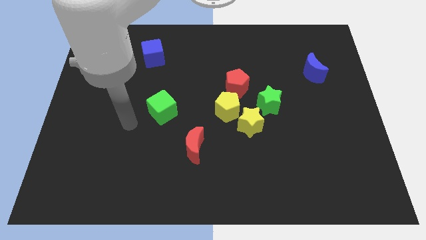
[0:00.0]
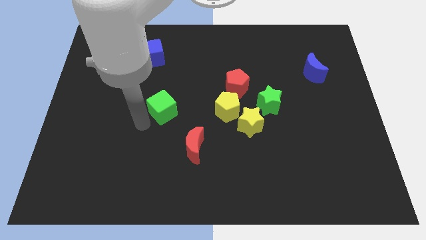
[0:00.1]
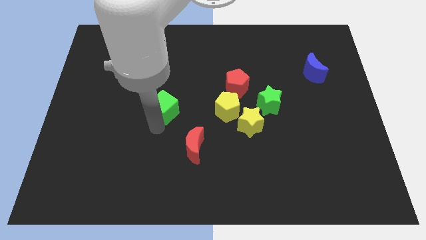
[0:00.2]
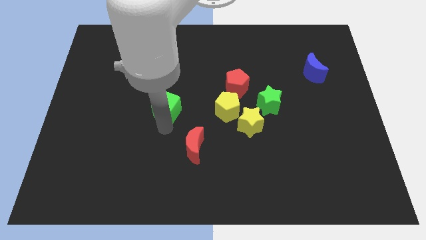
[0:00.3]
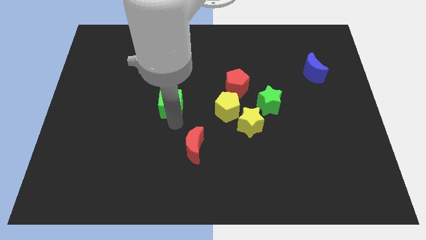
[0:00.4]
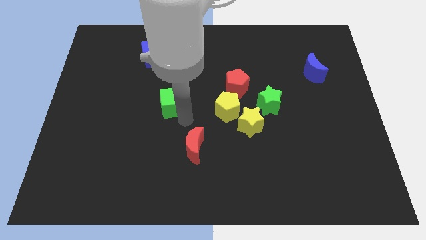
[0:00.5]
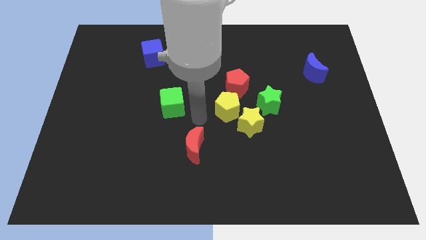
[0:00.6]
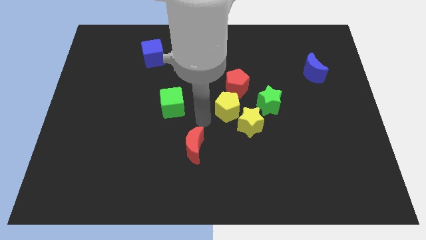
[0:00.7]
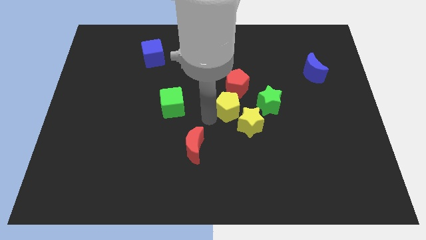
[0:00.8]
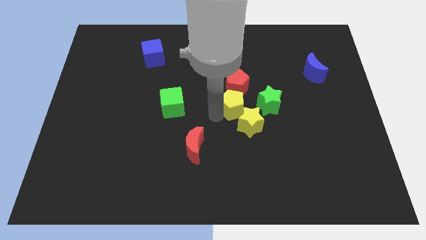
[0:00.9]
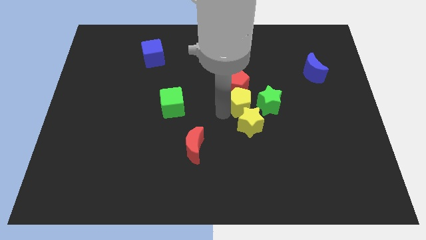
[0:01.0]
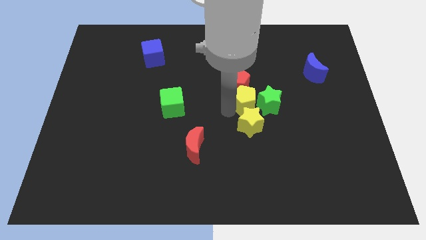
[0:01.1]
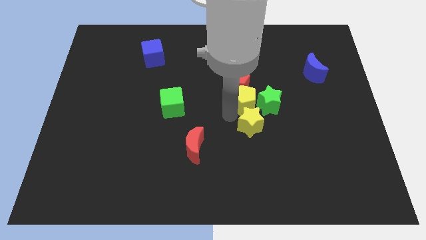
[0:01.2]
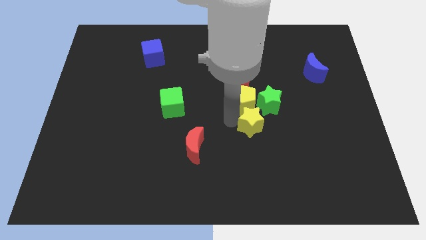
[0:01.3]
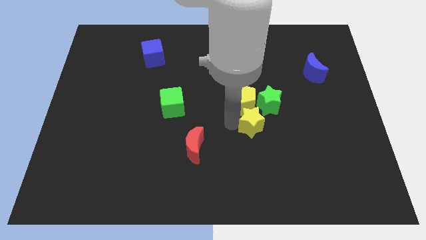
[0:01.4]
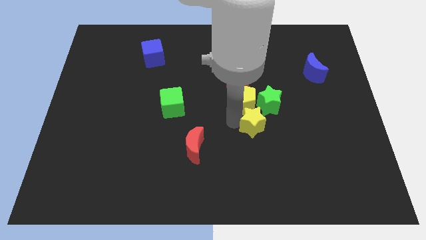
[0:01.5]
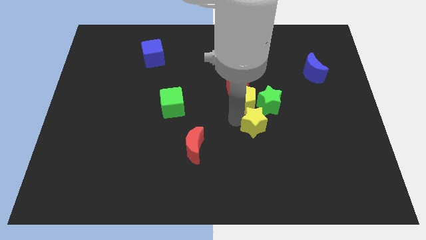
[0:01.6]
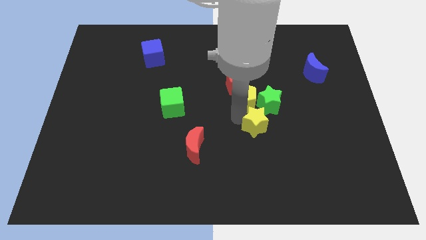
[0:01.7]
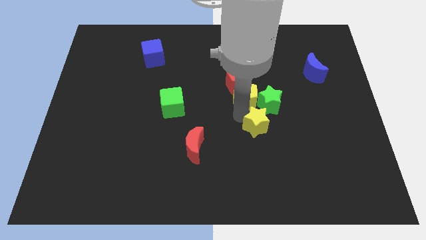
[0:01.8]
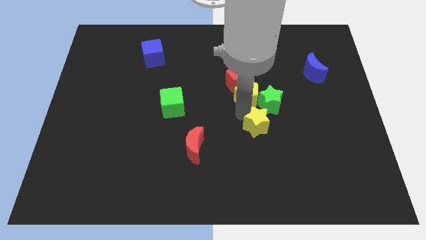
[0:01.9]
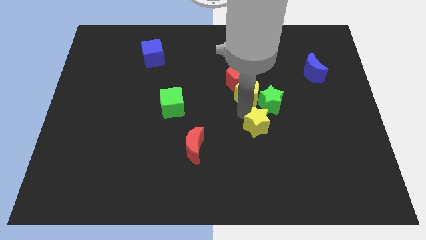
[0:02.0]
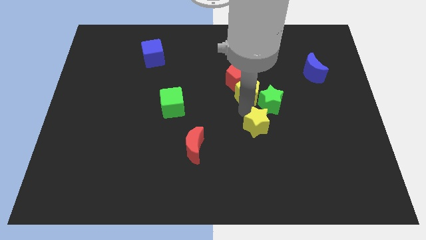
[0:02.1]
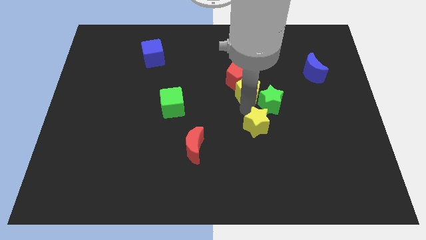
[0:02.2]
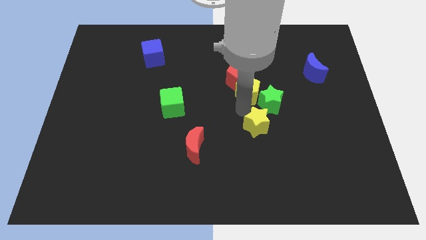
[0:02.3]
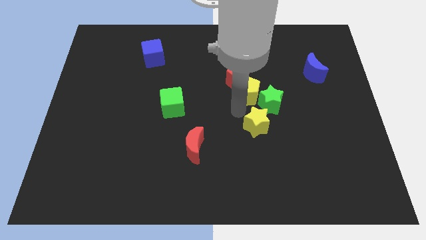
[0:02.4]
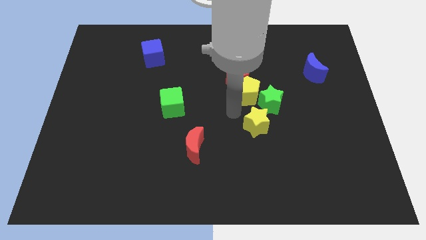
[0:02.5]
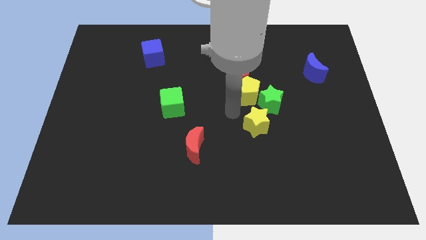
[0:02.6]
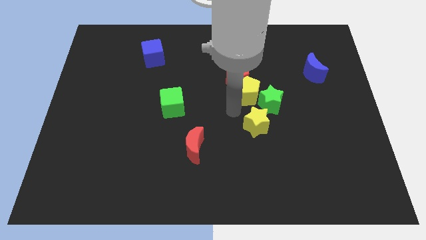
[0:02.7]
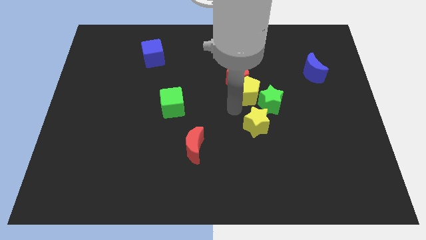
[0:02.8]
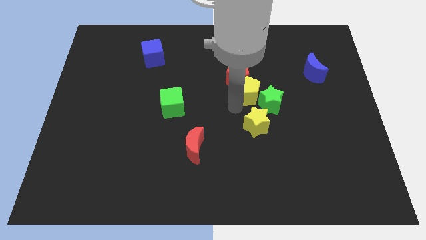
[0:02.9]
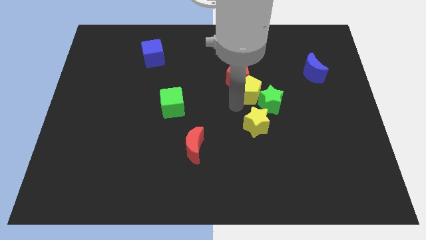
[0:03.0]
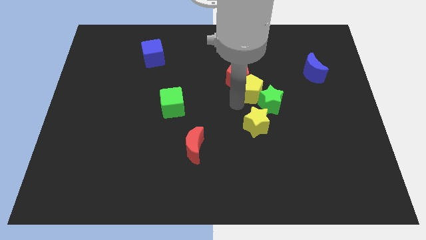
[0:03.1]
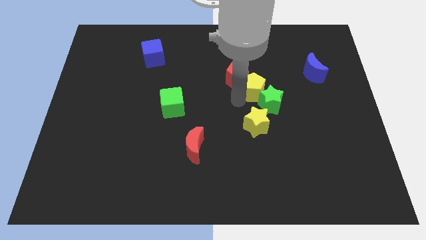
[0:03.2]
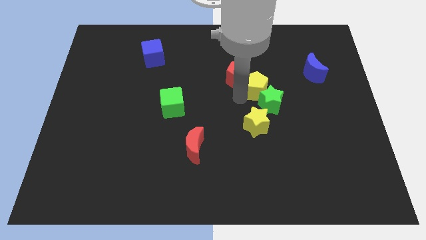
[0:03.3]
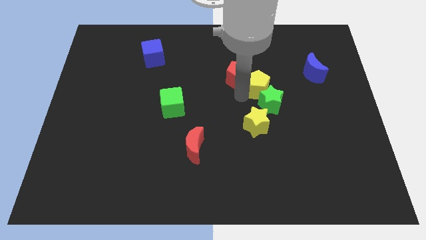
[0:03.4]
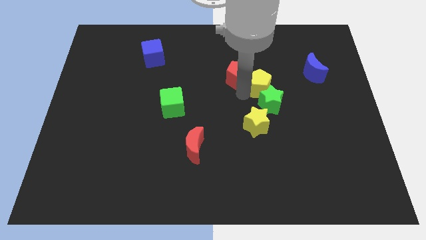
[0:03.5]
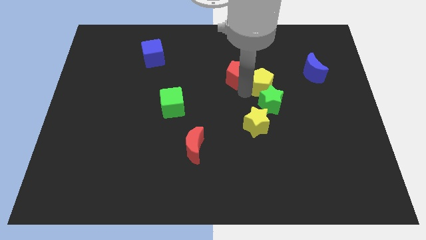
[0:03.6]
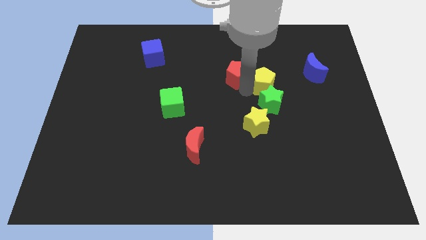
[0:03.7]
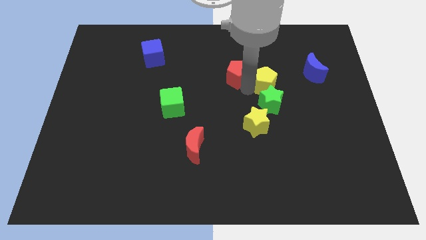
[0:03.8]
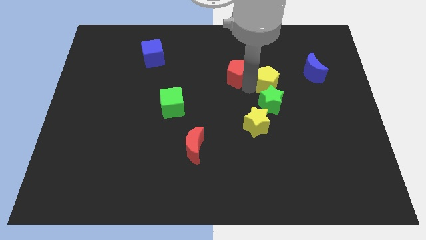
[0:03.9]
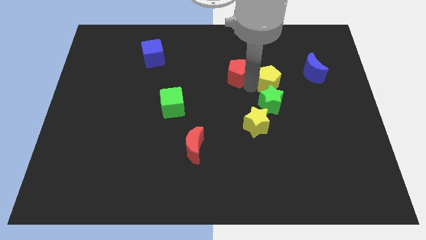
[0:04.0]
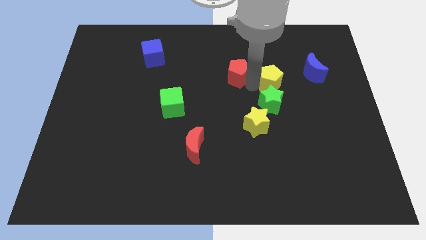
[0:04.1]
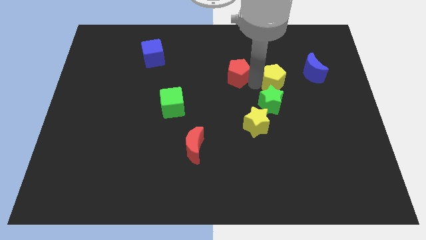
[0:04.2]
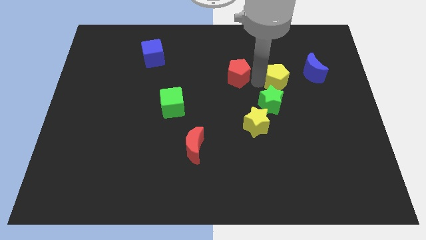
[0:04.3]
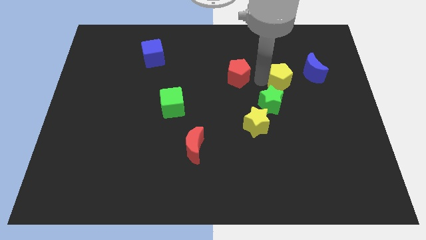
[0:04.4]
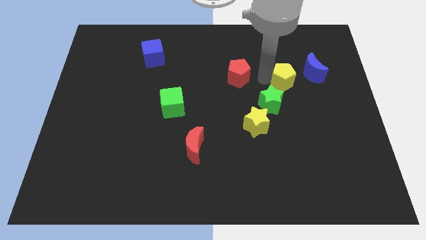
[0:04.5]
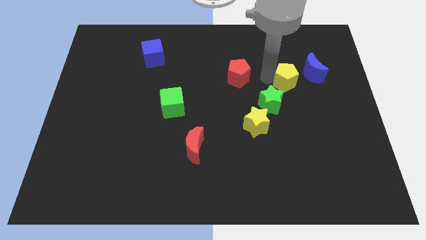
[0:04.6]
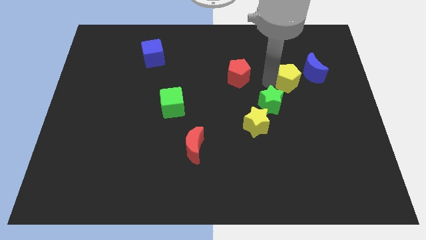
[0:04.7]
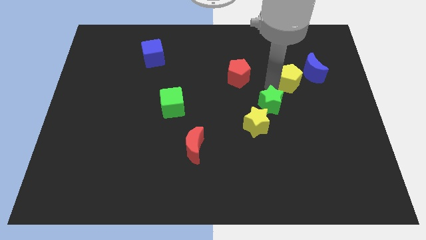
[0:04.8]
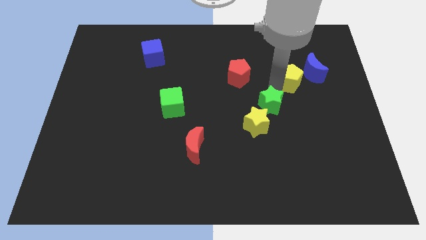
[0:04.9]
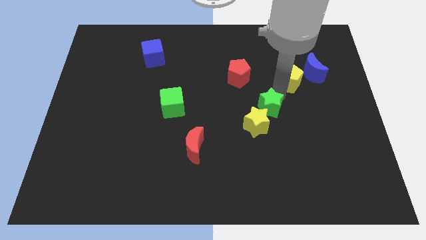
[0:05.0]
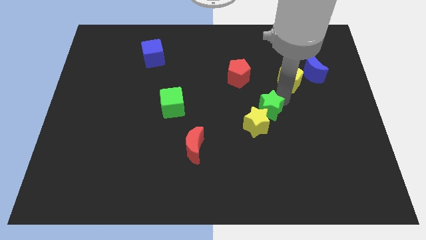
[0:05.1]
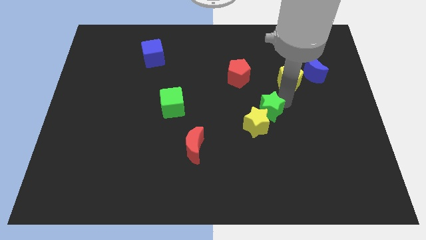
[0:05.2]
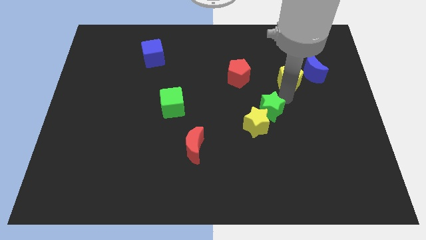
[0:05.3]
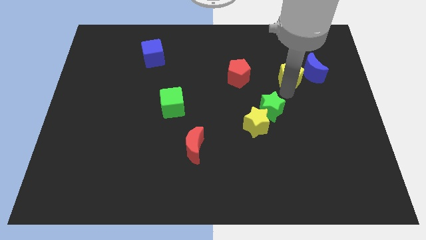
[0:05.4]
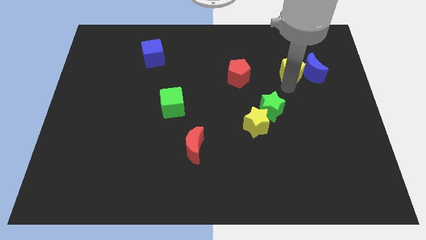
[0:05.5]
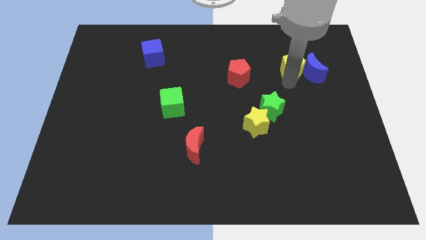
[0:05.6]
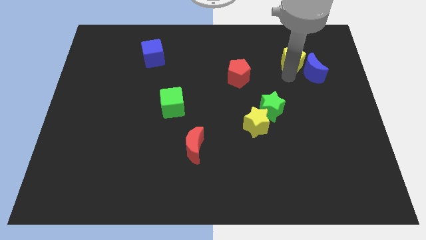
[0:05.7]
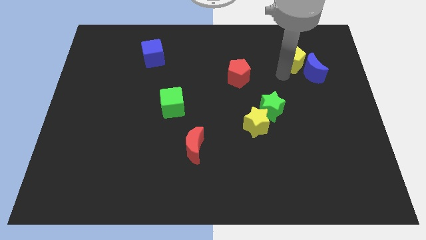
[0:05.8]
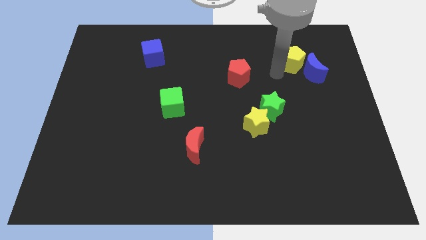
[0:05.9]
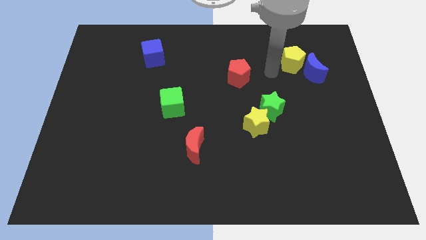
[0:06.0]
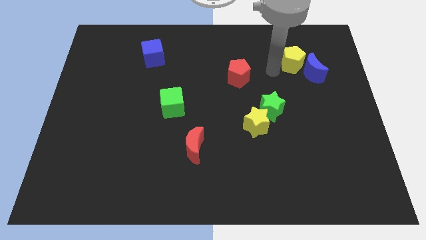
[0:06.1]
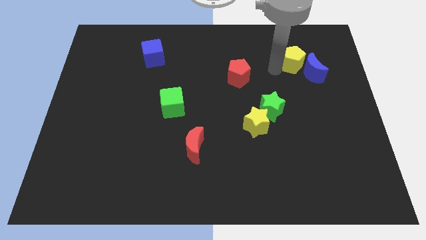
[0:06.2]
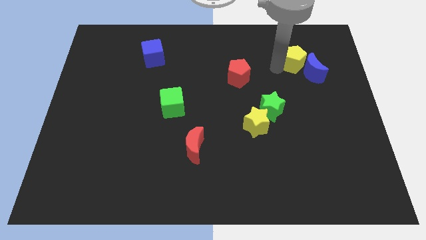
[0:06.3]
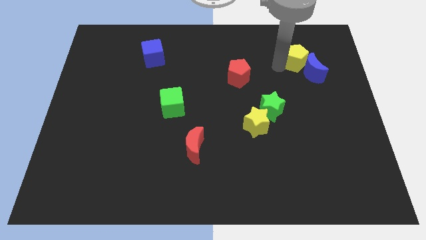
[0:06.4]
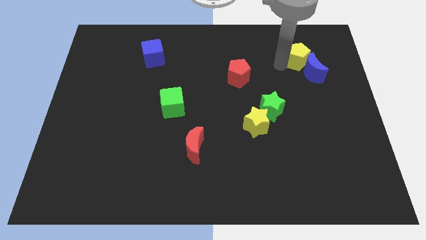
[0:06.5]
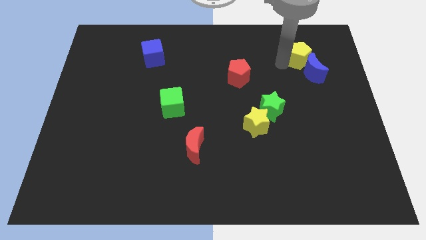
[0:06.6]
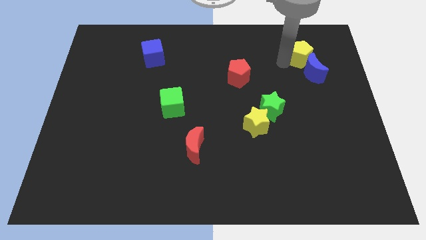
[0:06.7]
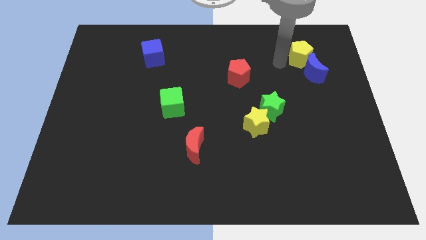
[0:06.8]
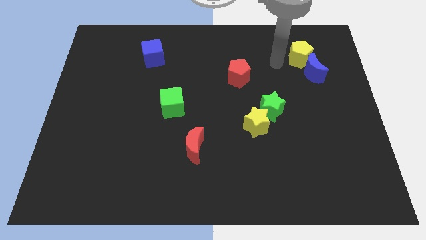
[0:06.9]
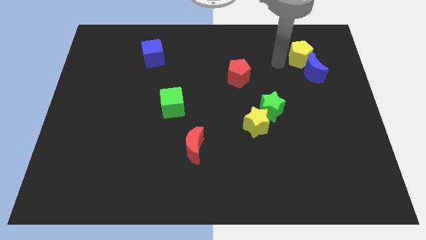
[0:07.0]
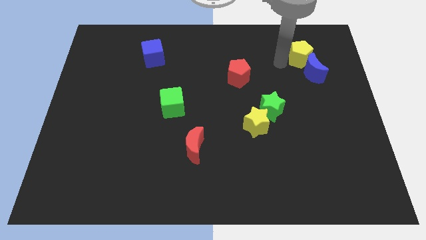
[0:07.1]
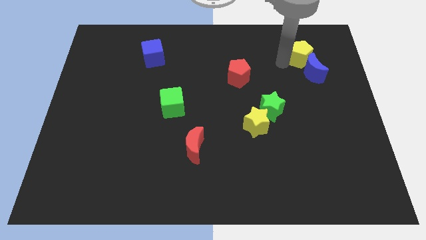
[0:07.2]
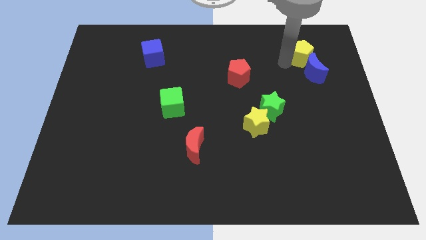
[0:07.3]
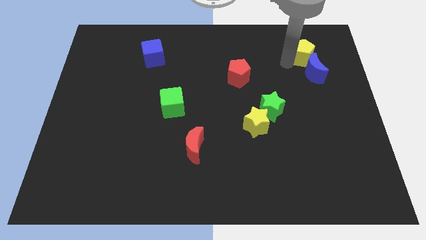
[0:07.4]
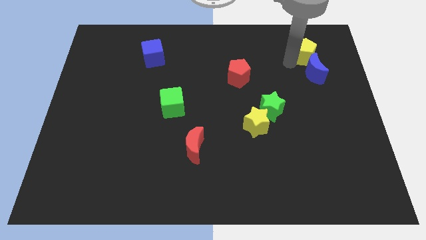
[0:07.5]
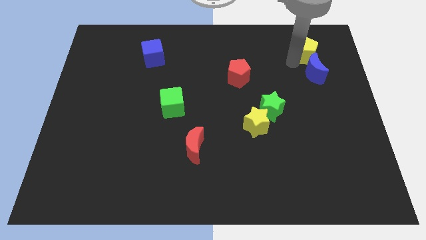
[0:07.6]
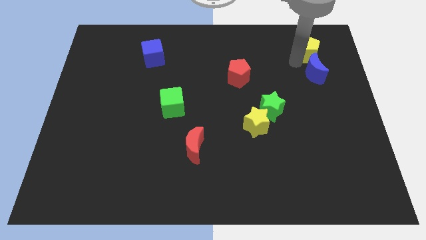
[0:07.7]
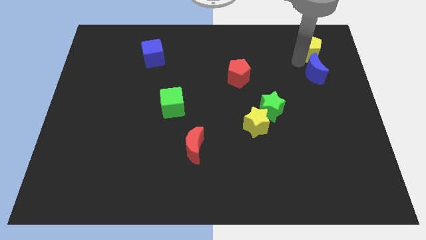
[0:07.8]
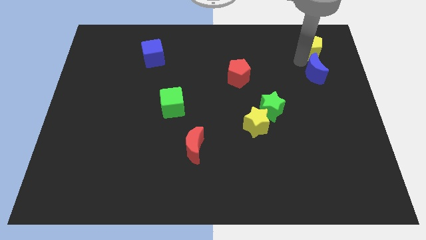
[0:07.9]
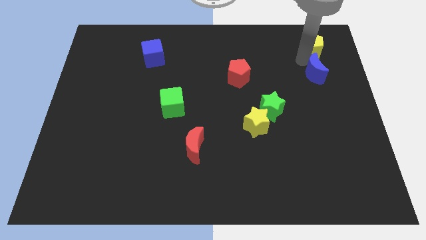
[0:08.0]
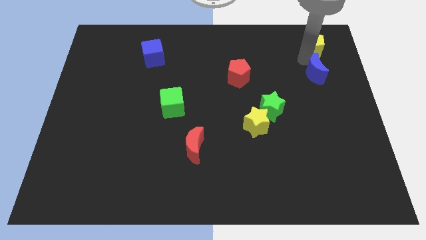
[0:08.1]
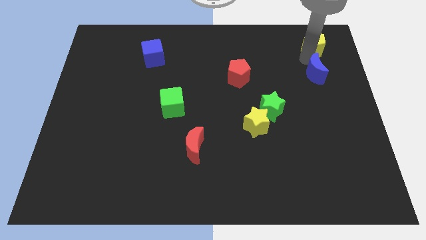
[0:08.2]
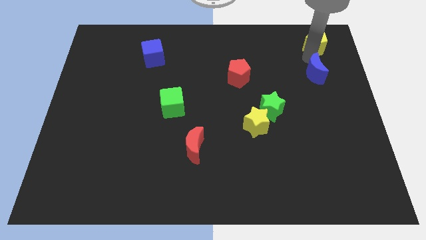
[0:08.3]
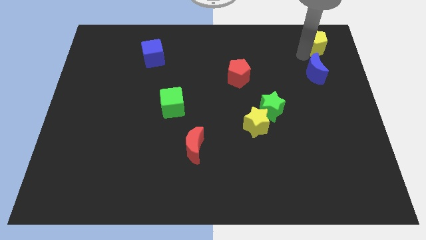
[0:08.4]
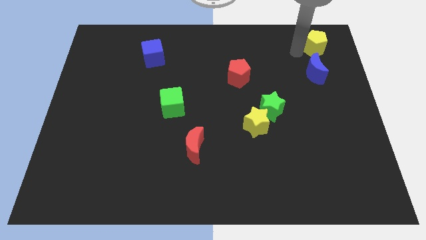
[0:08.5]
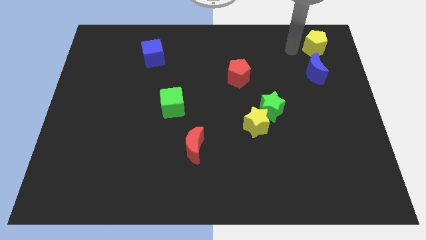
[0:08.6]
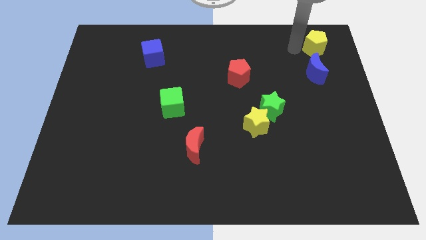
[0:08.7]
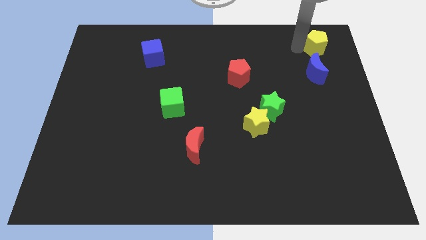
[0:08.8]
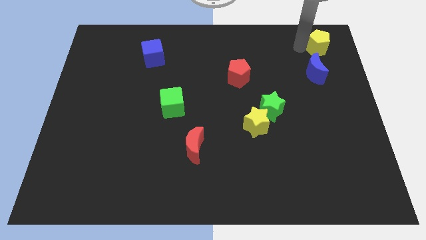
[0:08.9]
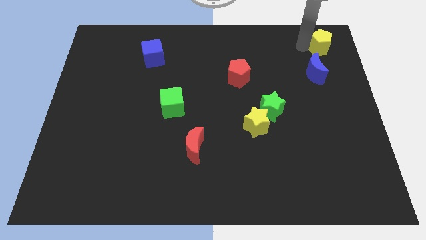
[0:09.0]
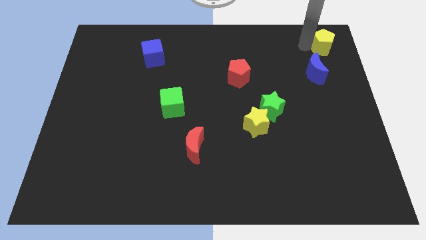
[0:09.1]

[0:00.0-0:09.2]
push the yellow pentagon to the top right
